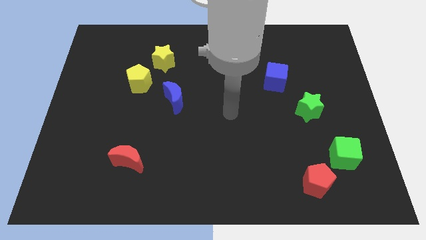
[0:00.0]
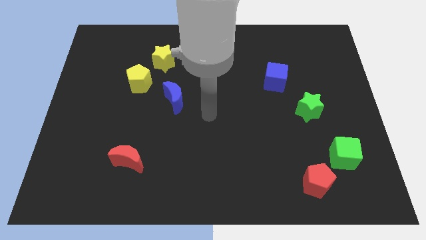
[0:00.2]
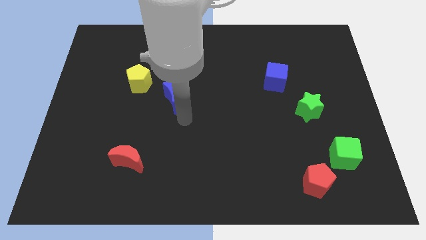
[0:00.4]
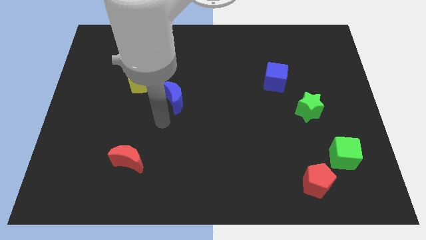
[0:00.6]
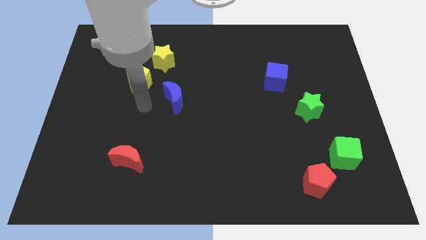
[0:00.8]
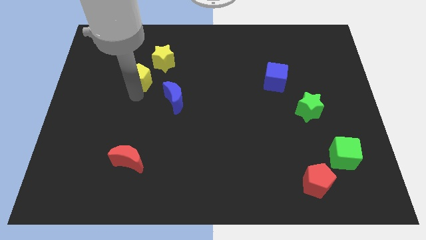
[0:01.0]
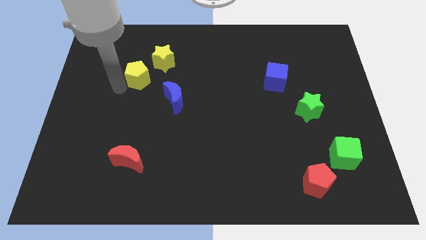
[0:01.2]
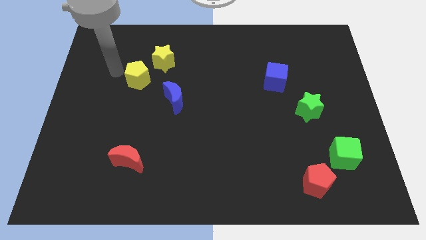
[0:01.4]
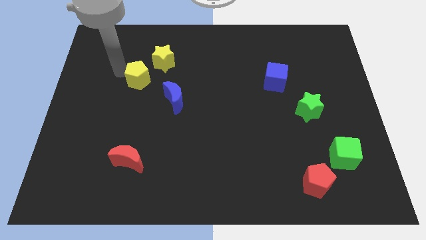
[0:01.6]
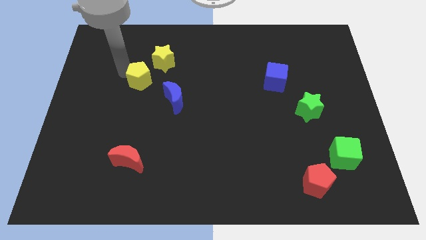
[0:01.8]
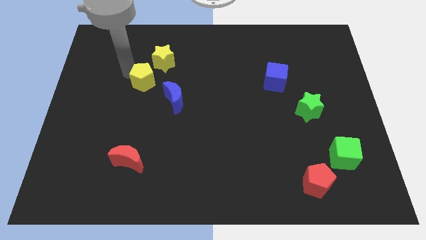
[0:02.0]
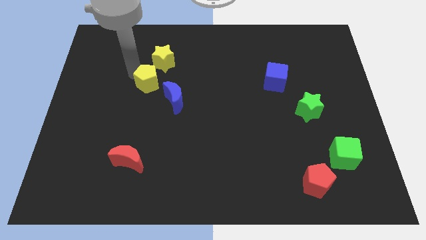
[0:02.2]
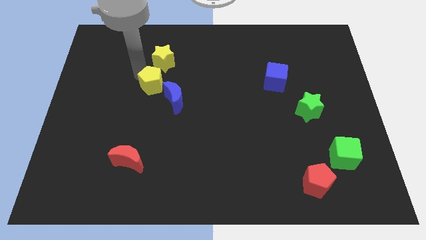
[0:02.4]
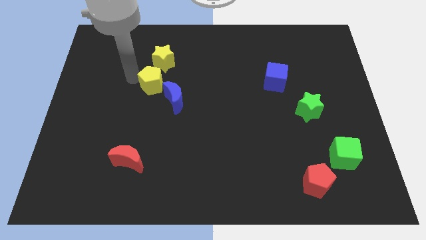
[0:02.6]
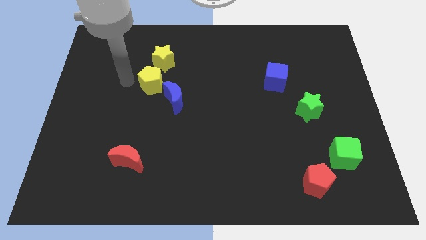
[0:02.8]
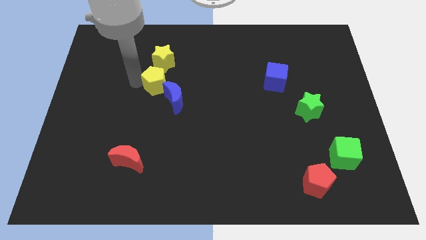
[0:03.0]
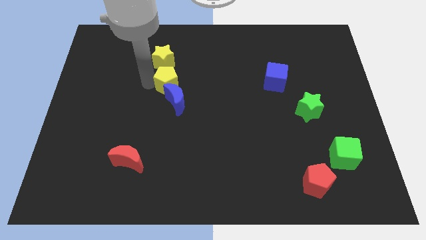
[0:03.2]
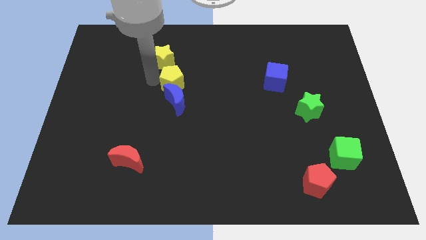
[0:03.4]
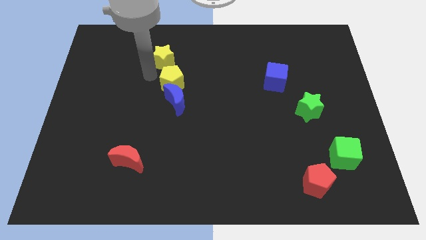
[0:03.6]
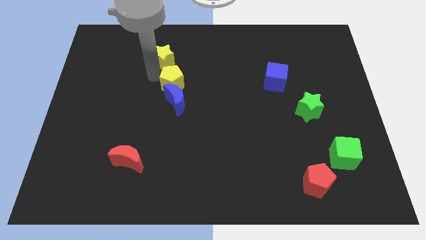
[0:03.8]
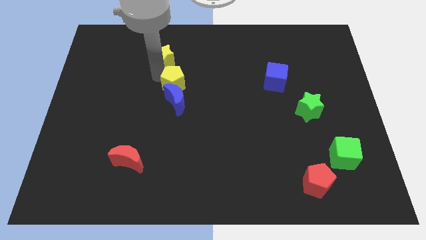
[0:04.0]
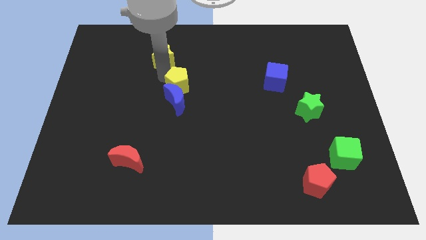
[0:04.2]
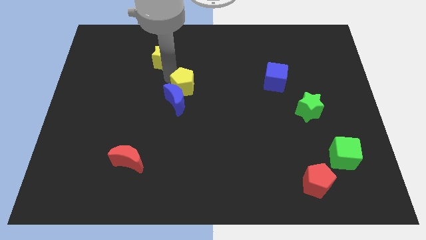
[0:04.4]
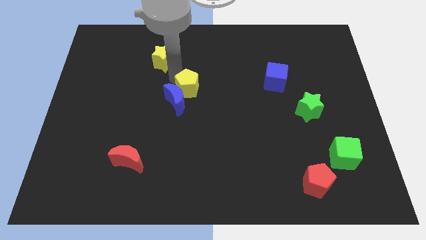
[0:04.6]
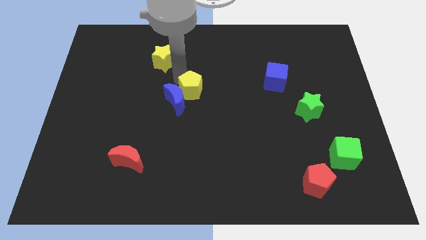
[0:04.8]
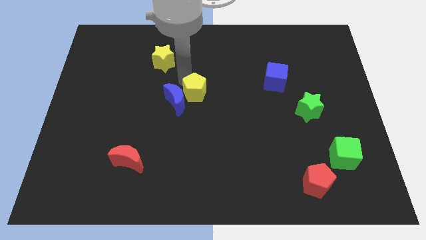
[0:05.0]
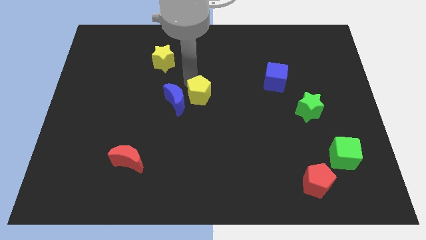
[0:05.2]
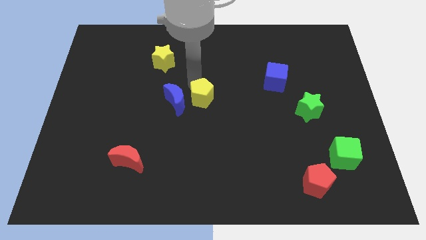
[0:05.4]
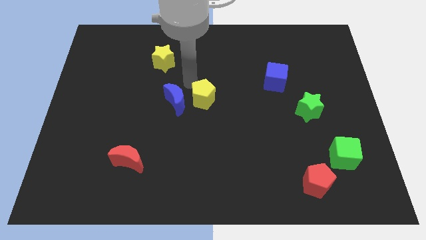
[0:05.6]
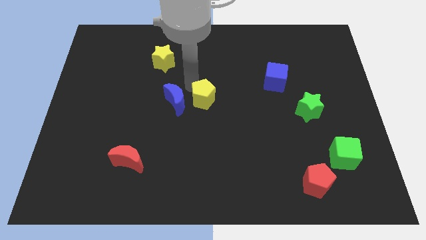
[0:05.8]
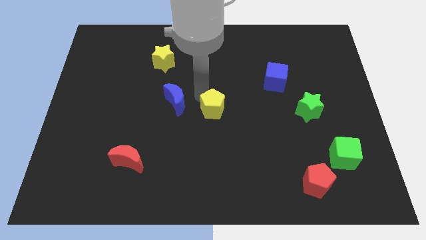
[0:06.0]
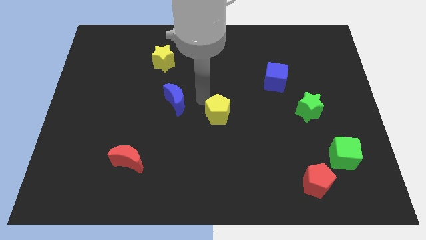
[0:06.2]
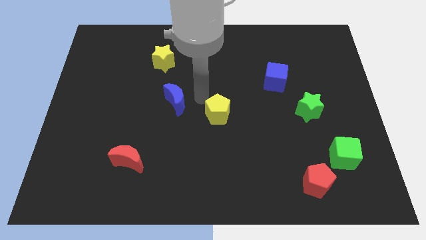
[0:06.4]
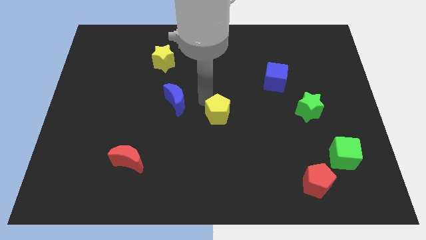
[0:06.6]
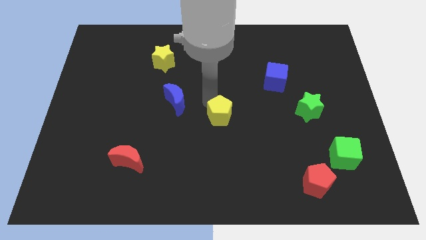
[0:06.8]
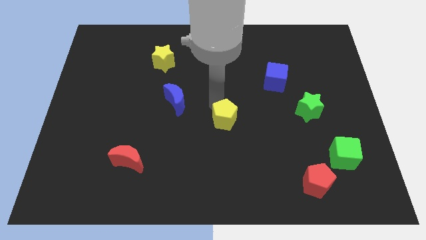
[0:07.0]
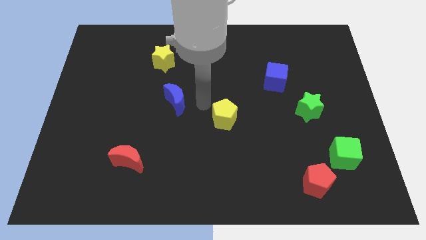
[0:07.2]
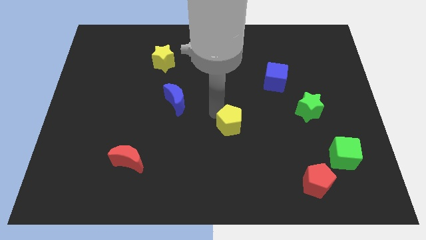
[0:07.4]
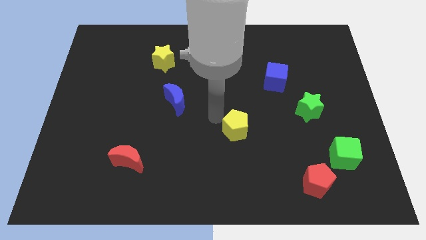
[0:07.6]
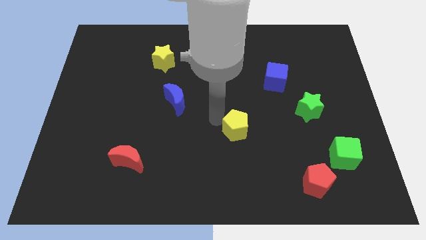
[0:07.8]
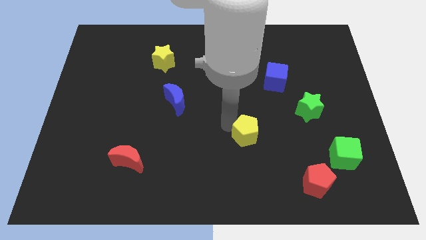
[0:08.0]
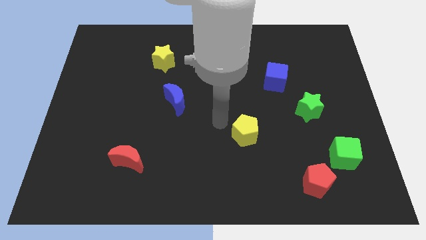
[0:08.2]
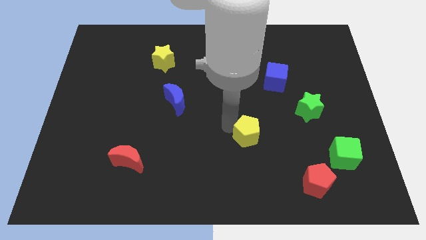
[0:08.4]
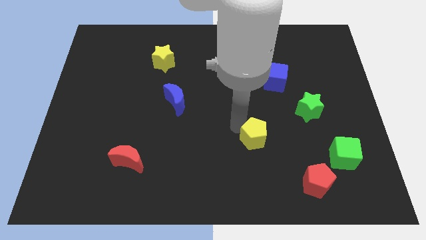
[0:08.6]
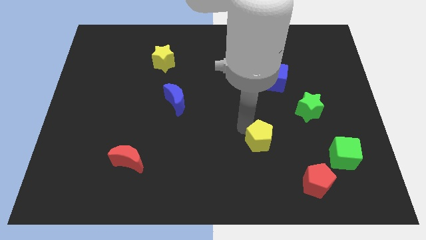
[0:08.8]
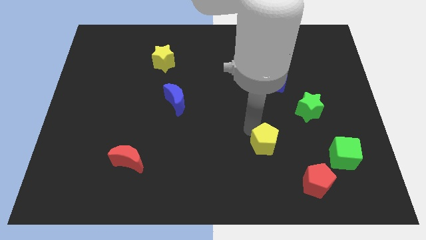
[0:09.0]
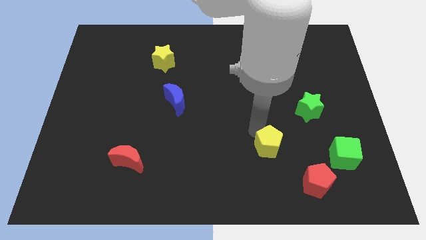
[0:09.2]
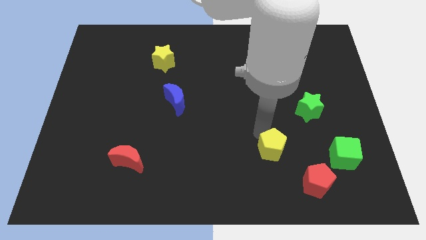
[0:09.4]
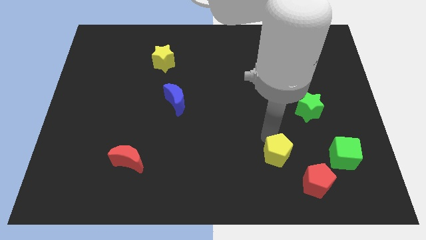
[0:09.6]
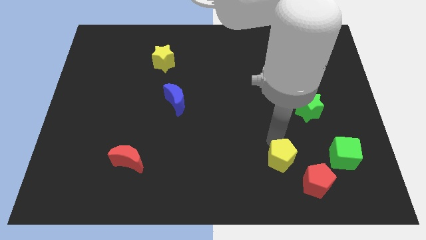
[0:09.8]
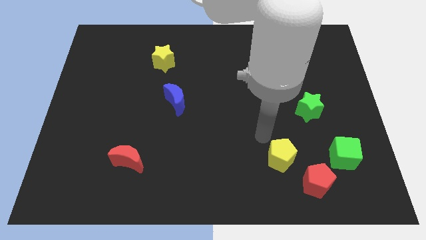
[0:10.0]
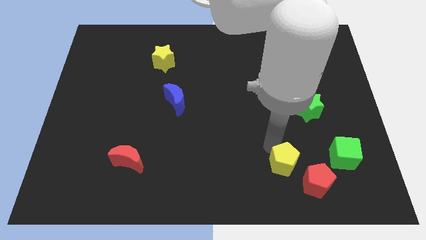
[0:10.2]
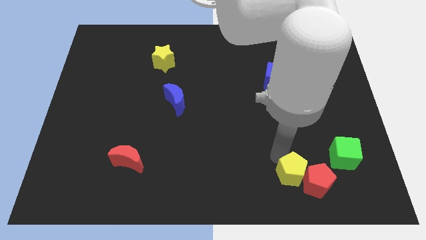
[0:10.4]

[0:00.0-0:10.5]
move the yellow pentagon towards the red pentagon

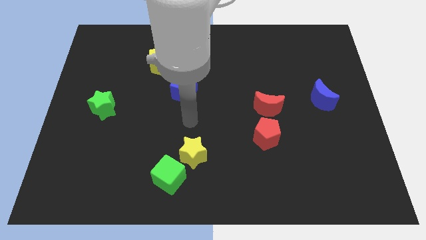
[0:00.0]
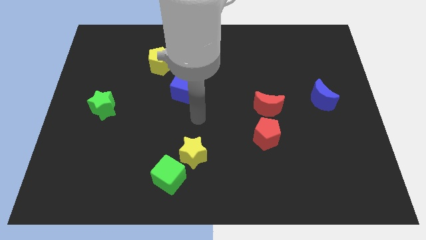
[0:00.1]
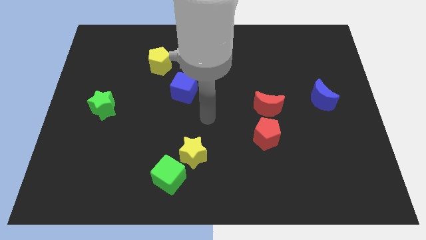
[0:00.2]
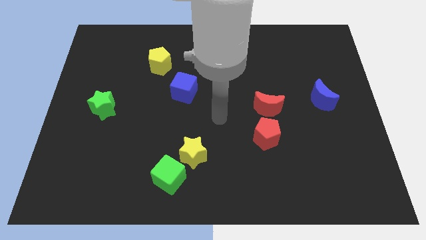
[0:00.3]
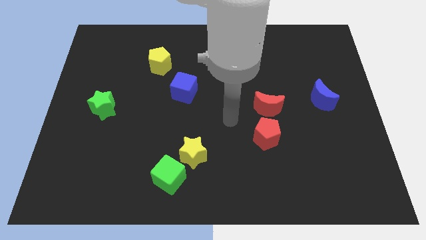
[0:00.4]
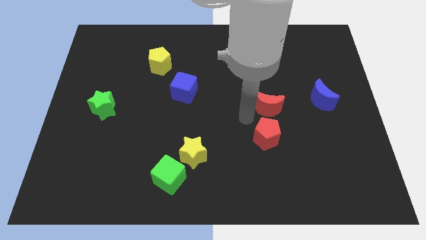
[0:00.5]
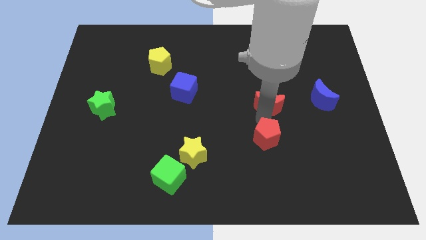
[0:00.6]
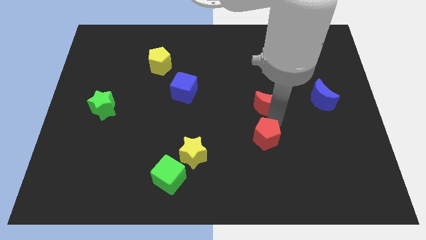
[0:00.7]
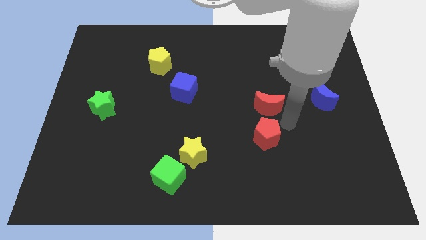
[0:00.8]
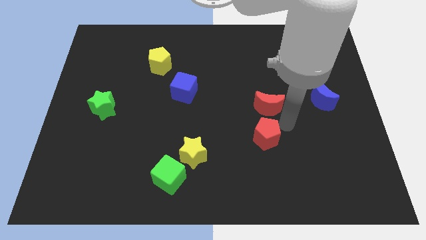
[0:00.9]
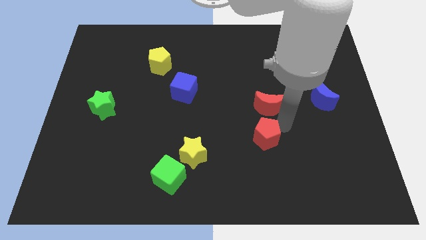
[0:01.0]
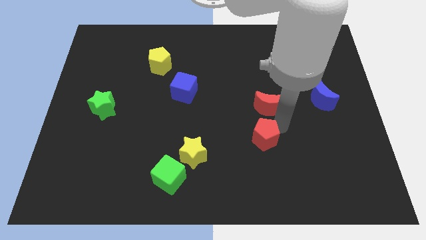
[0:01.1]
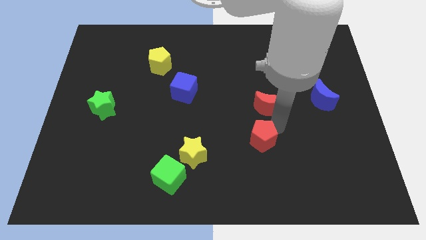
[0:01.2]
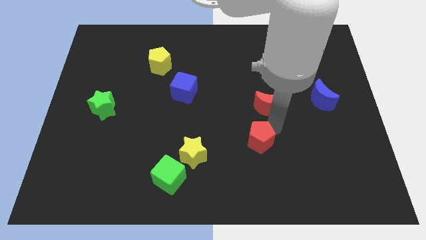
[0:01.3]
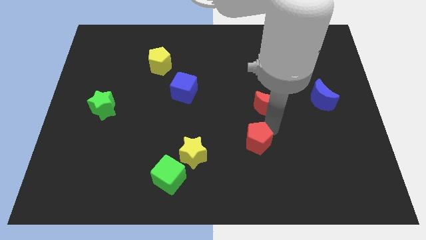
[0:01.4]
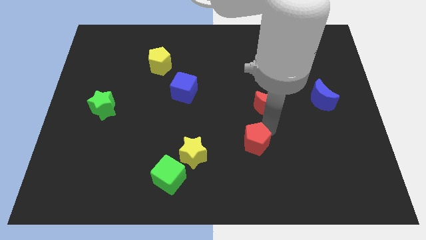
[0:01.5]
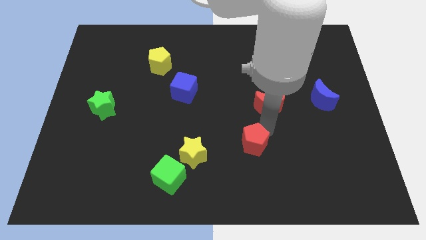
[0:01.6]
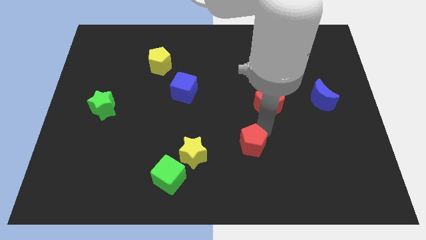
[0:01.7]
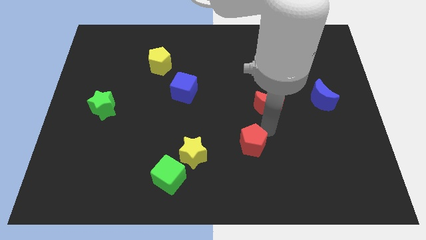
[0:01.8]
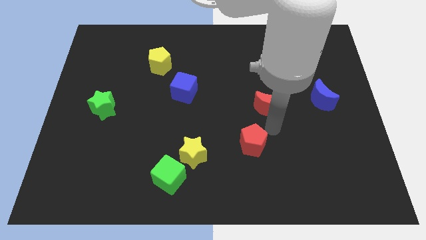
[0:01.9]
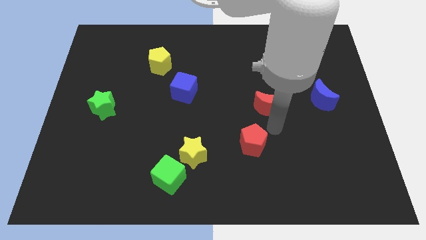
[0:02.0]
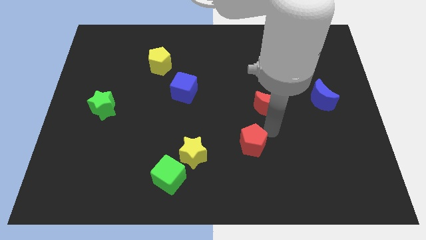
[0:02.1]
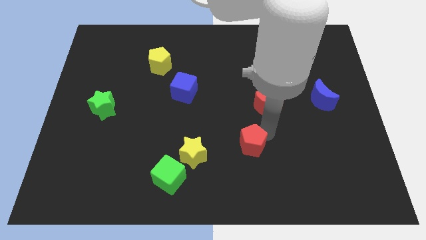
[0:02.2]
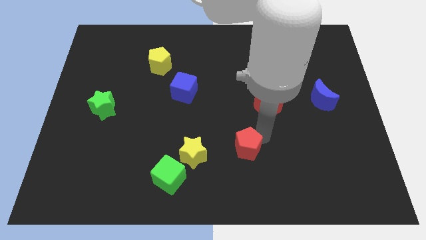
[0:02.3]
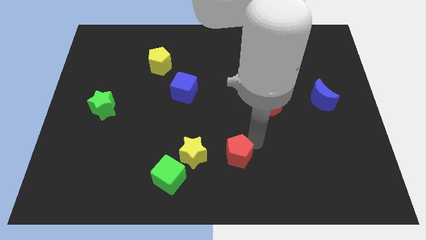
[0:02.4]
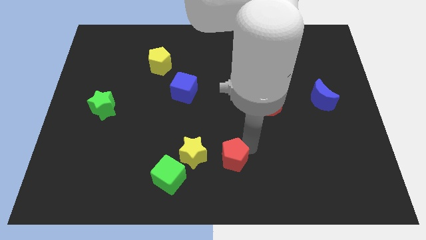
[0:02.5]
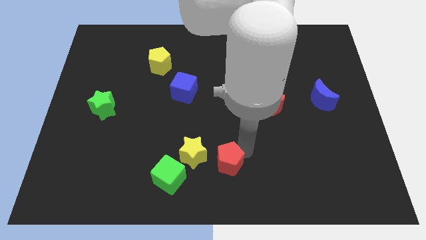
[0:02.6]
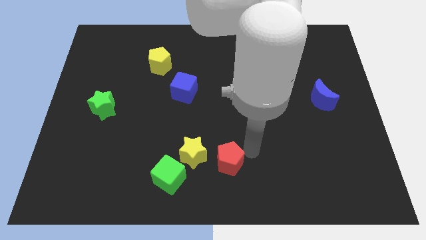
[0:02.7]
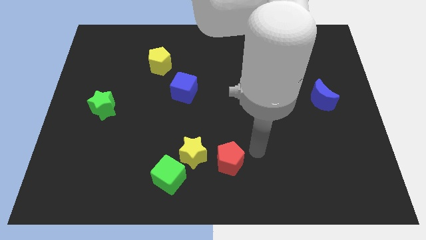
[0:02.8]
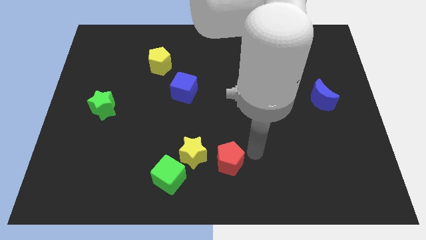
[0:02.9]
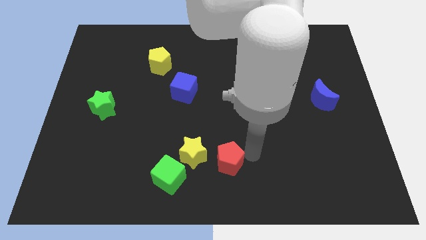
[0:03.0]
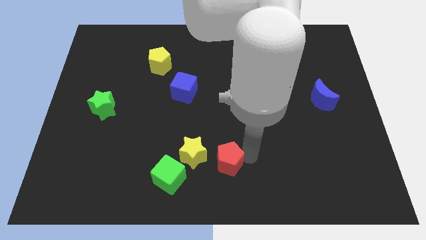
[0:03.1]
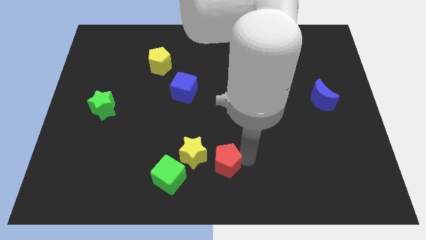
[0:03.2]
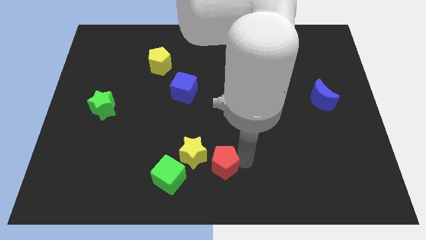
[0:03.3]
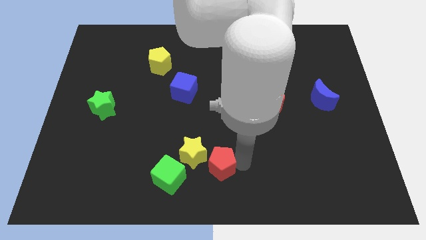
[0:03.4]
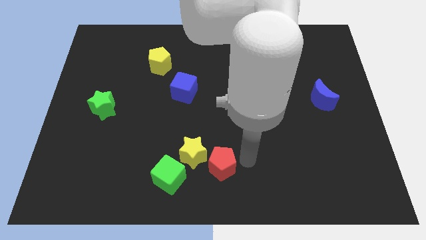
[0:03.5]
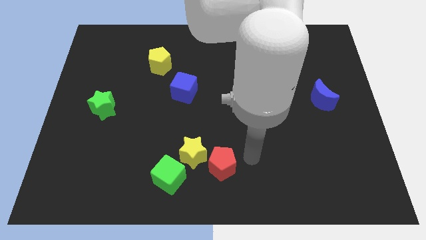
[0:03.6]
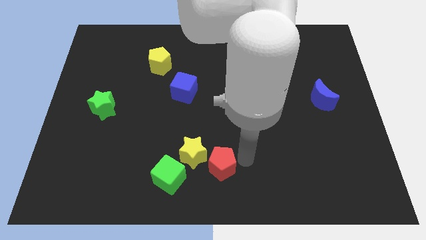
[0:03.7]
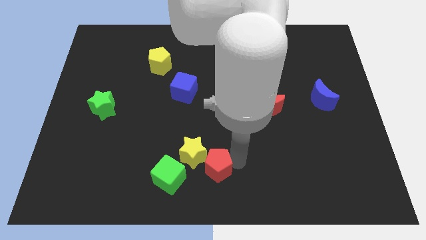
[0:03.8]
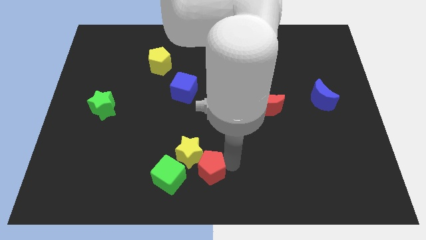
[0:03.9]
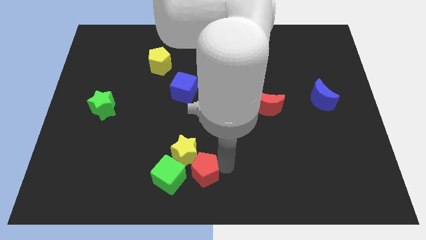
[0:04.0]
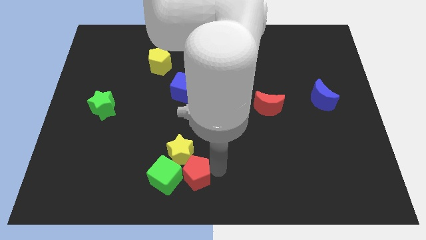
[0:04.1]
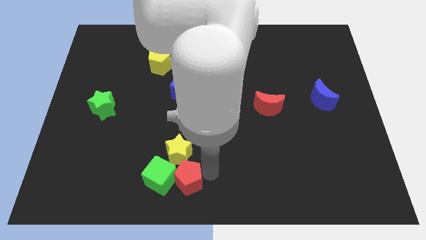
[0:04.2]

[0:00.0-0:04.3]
put the red pentagon next to the green cube
